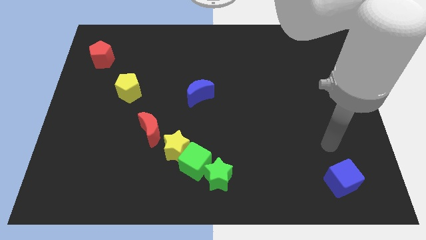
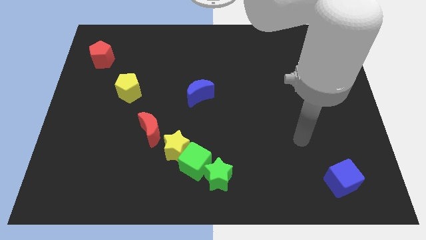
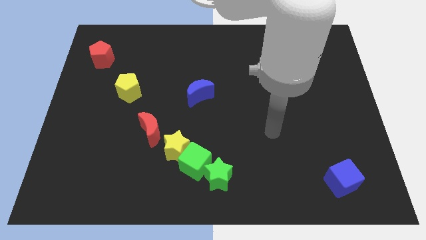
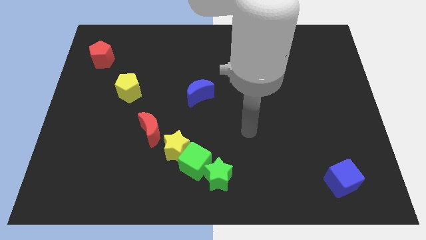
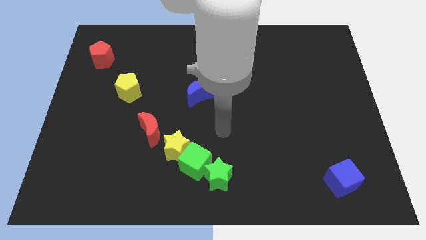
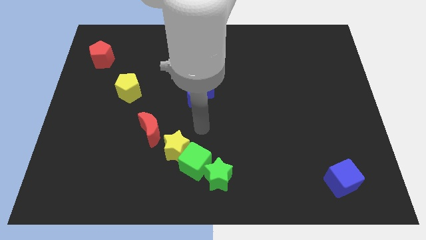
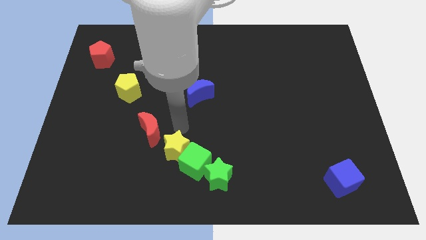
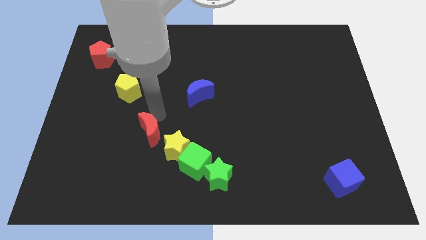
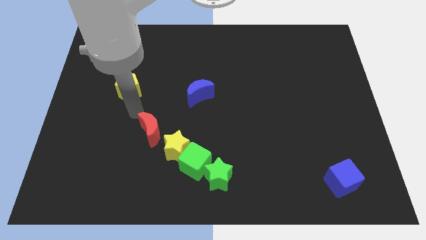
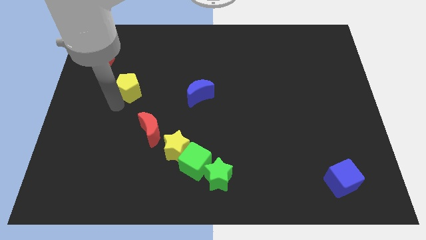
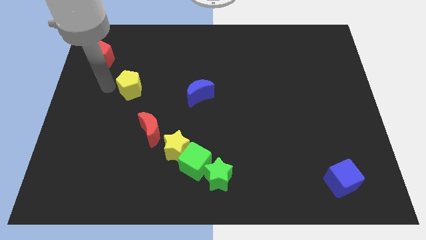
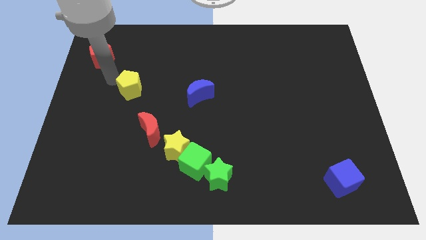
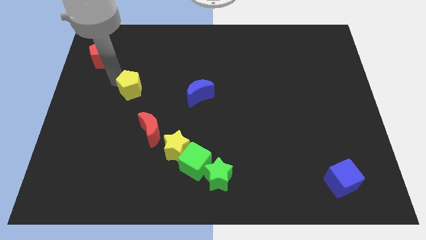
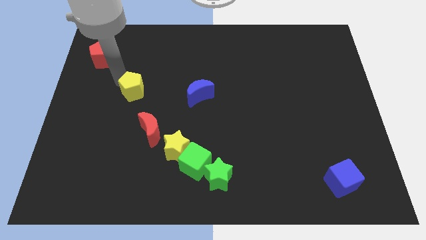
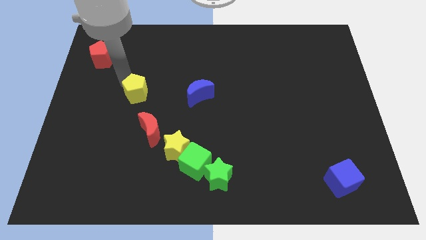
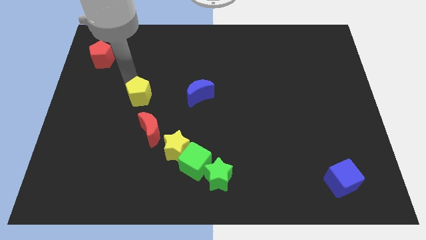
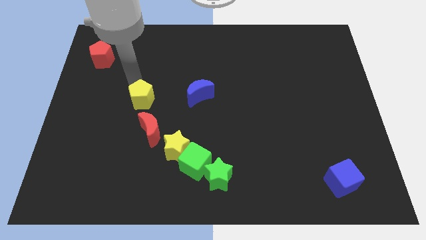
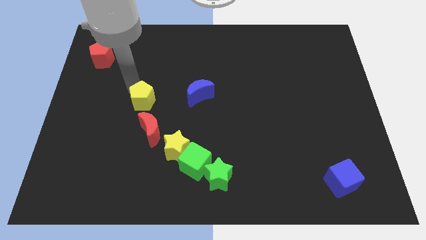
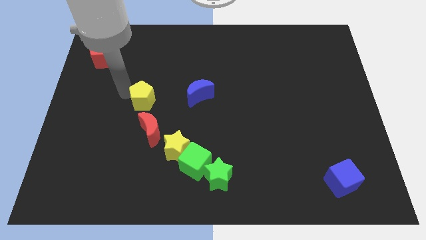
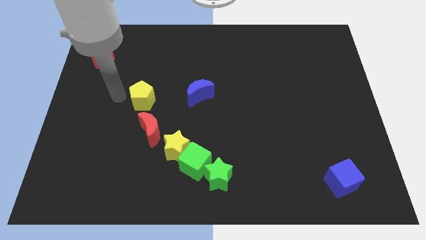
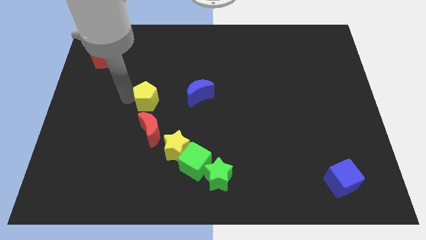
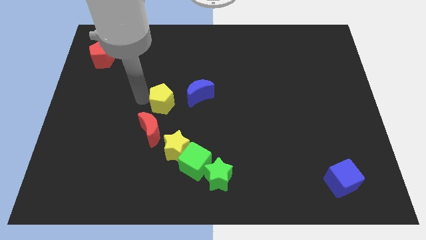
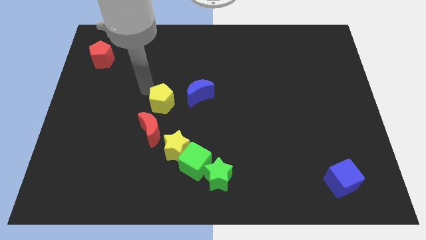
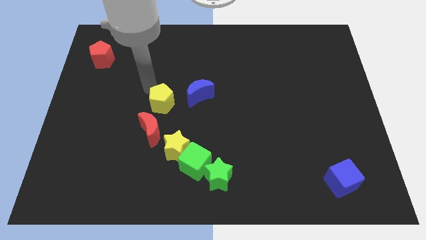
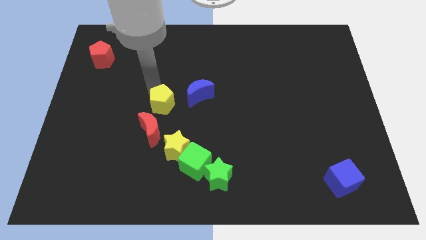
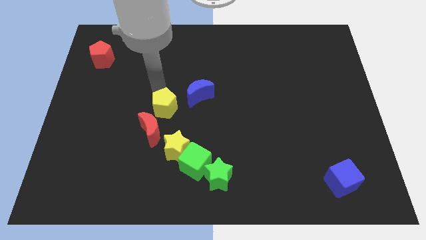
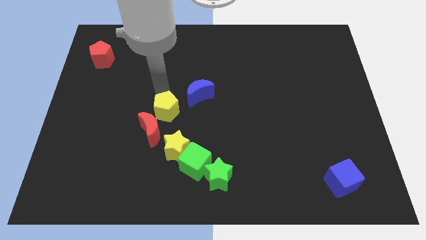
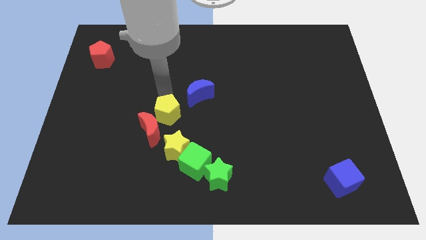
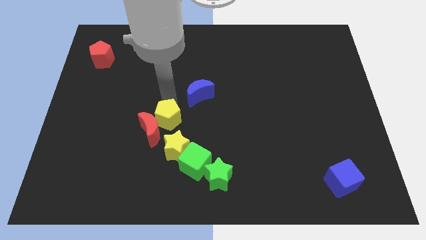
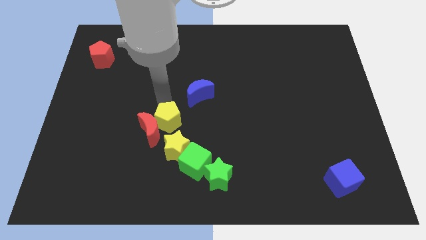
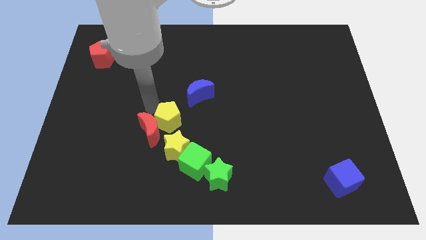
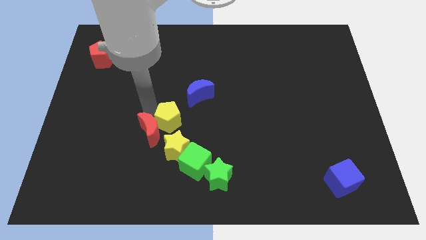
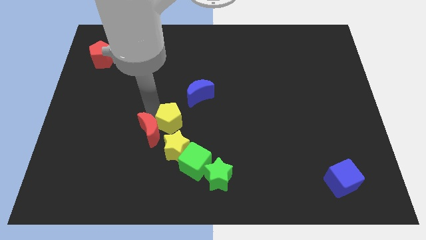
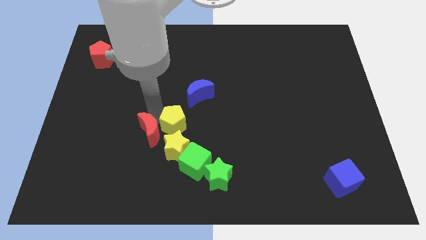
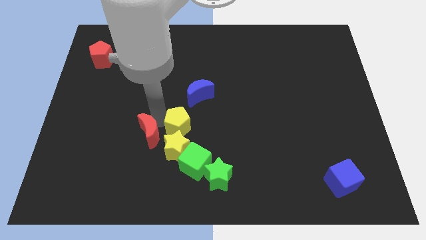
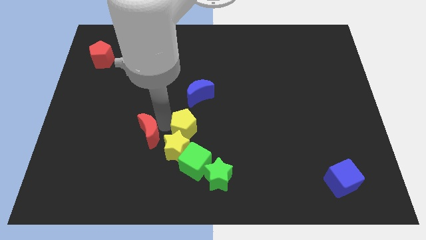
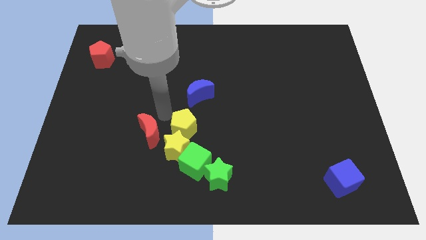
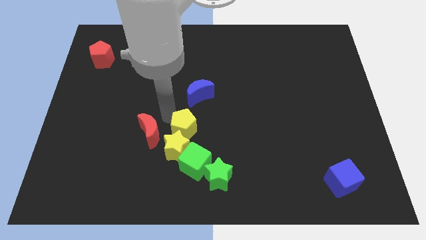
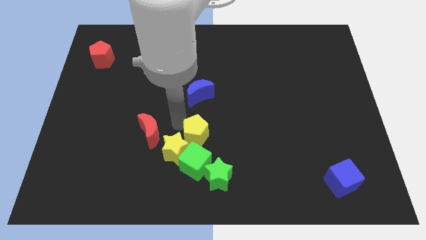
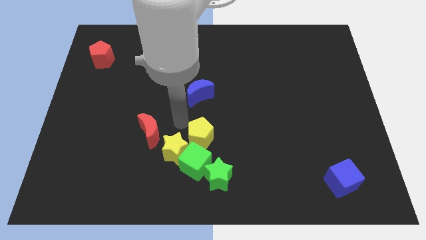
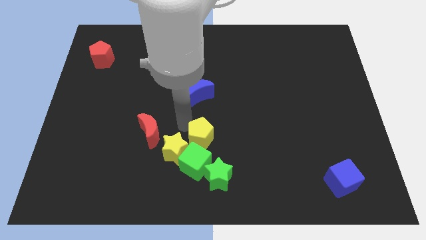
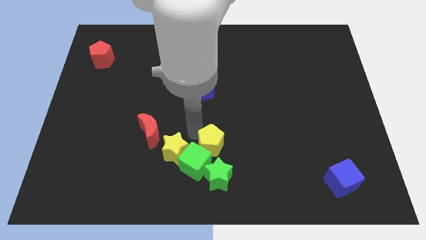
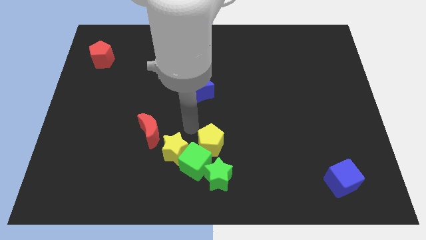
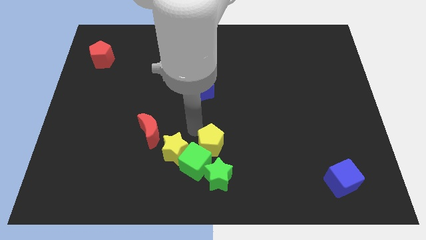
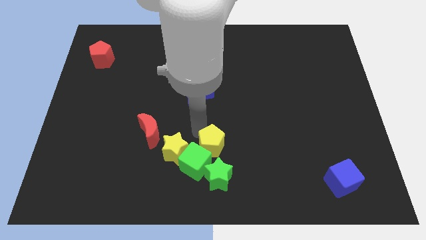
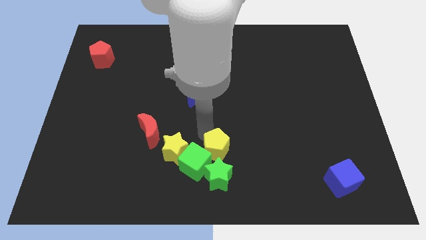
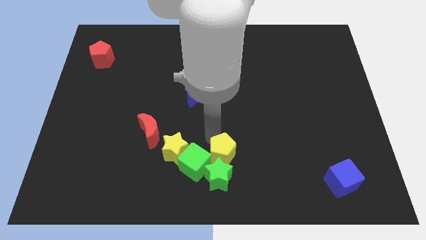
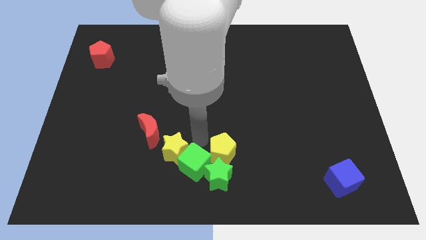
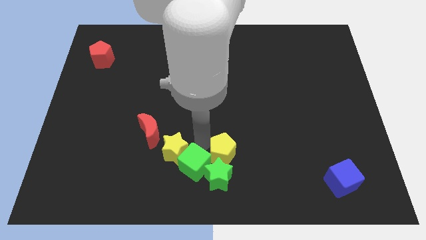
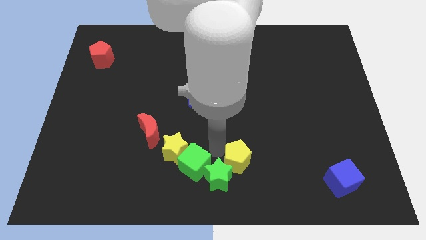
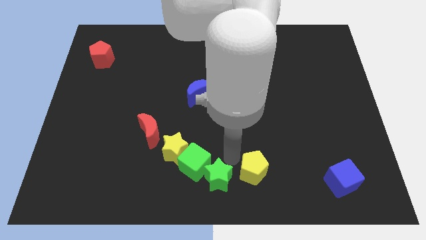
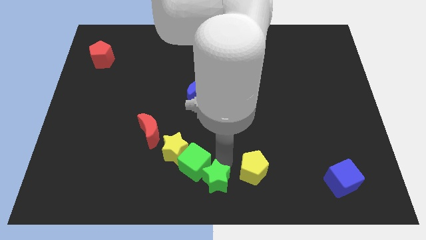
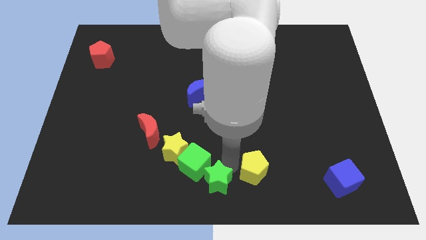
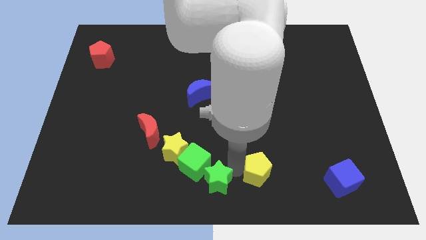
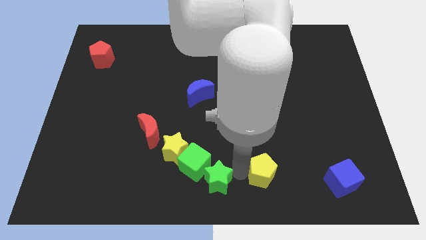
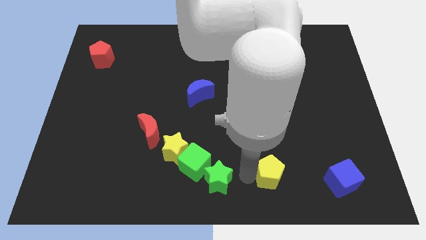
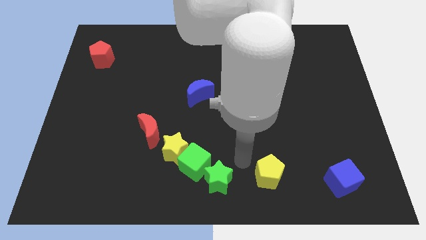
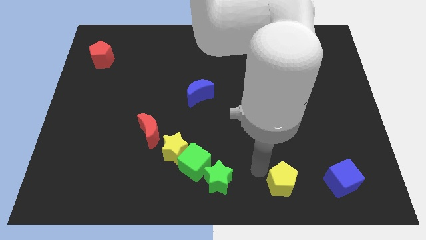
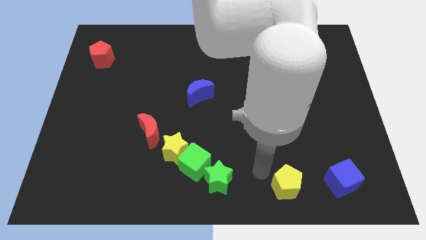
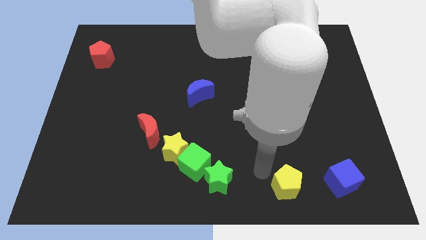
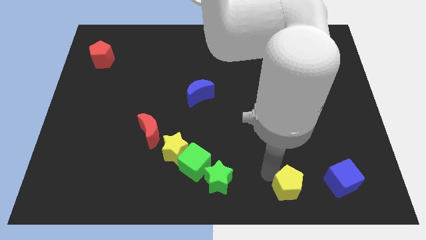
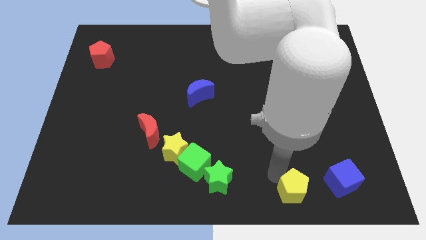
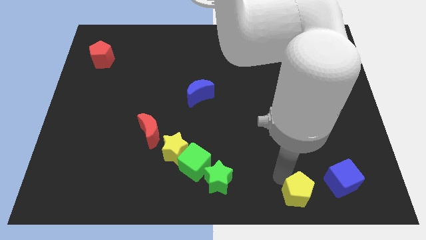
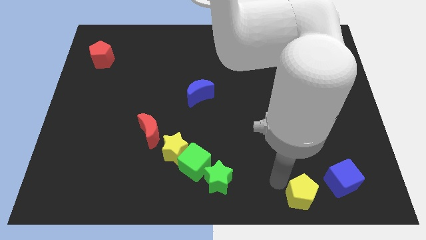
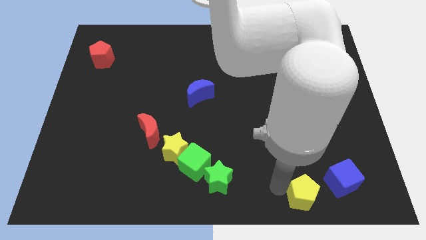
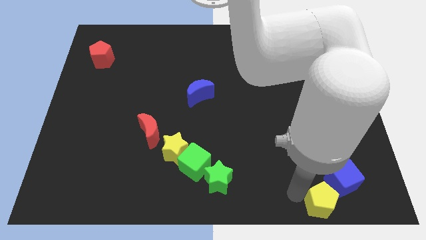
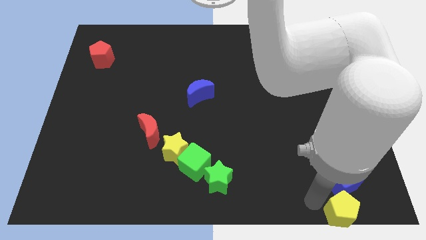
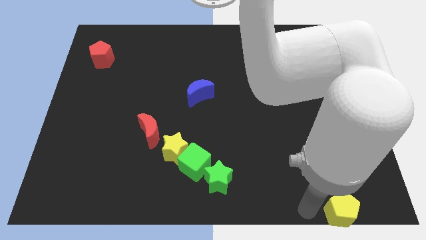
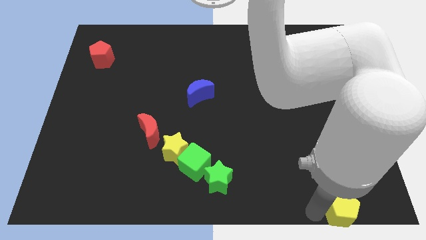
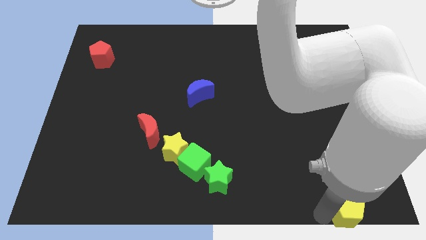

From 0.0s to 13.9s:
put the yellow pentagon to the bottom right of the board
